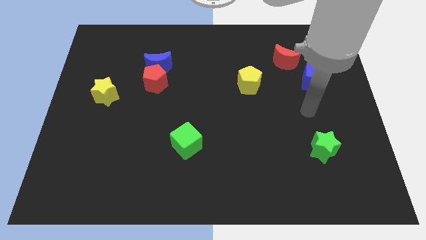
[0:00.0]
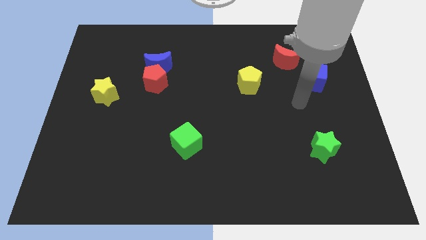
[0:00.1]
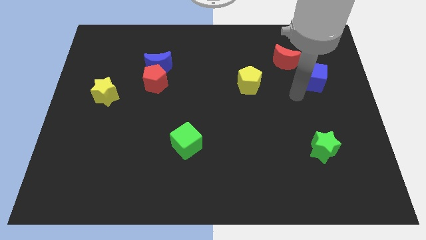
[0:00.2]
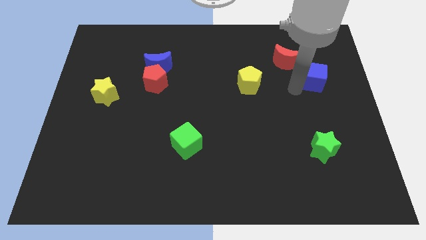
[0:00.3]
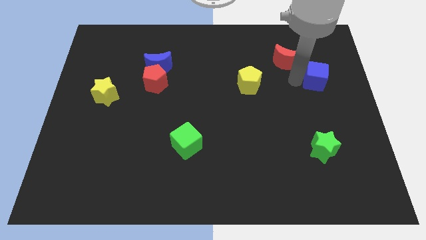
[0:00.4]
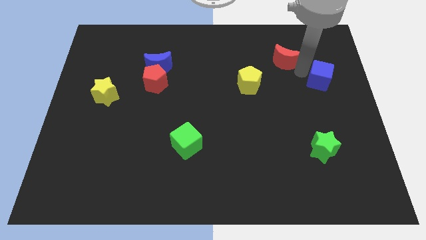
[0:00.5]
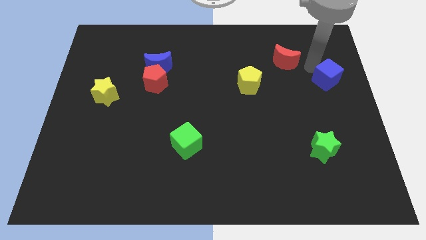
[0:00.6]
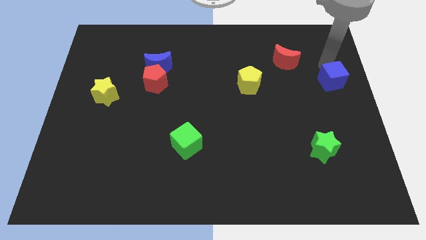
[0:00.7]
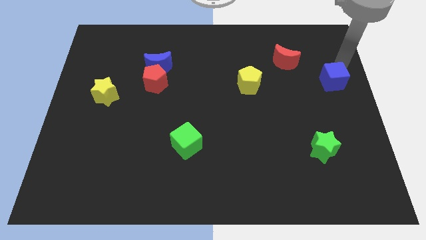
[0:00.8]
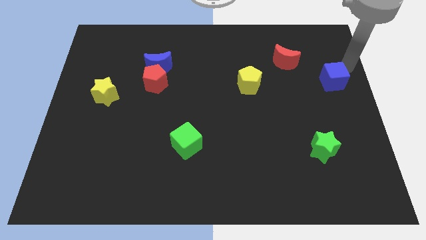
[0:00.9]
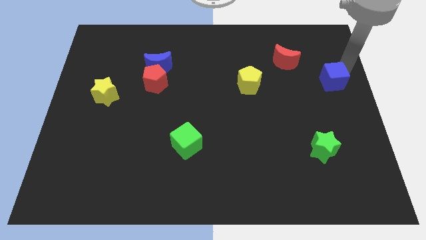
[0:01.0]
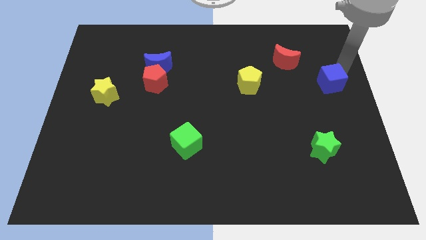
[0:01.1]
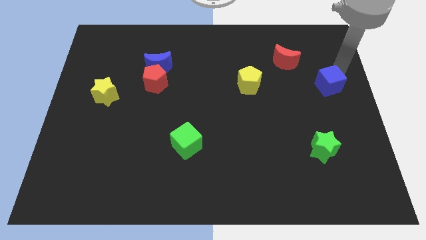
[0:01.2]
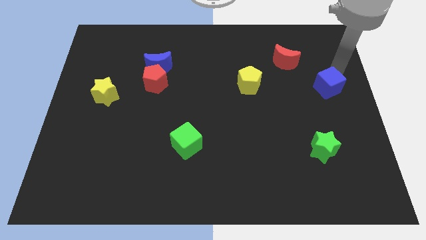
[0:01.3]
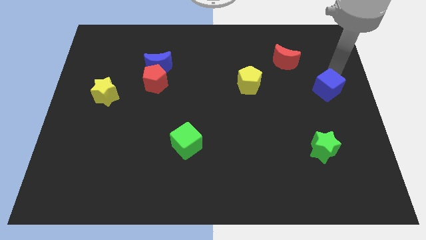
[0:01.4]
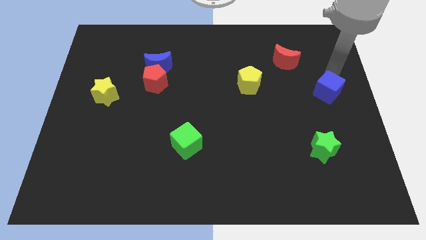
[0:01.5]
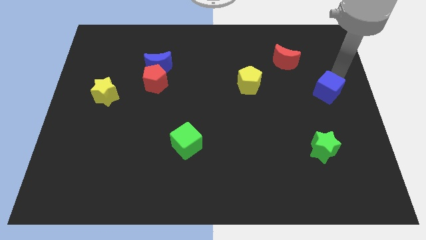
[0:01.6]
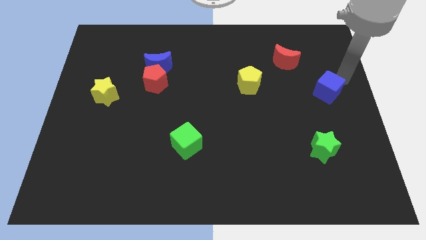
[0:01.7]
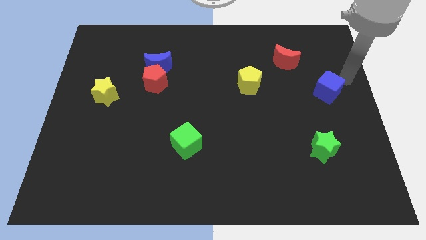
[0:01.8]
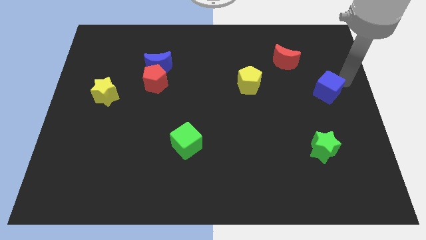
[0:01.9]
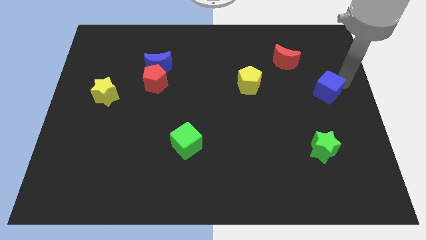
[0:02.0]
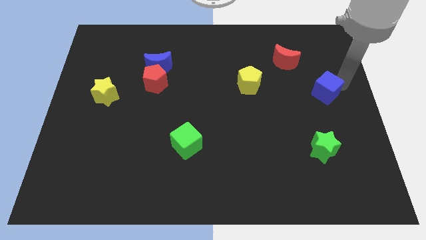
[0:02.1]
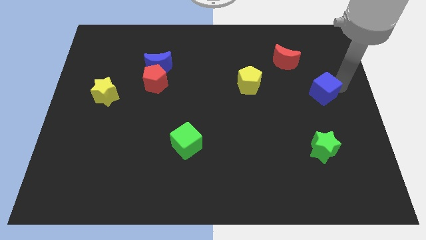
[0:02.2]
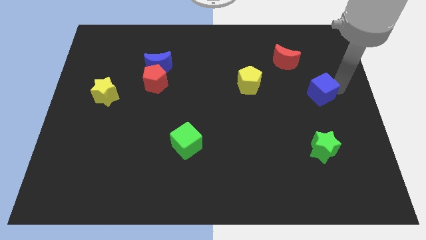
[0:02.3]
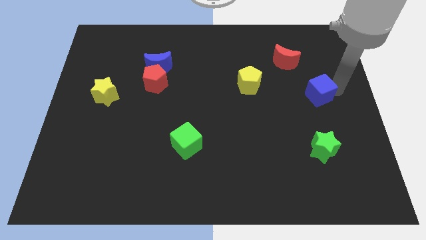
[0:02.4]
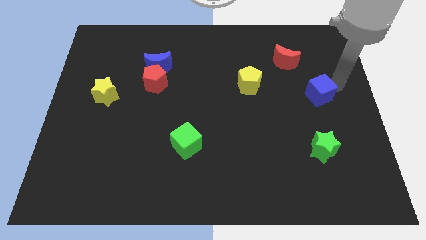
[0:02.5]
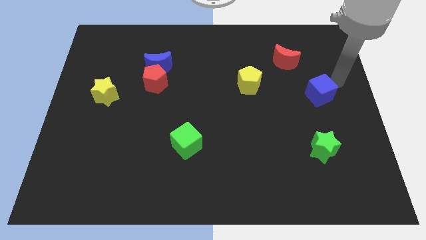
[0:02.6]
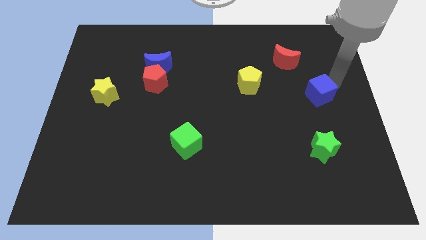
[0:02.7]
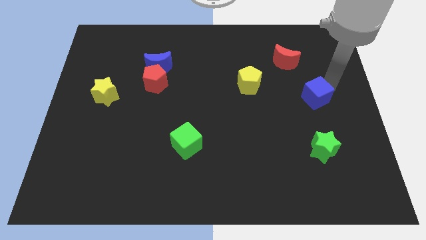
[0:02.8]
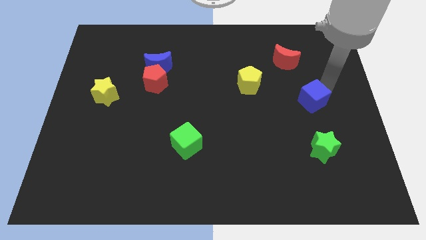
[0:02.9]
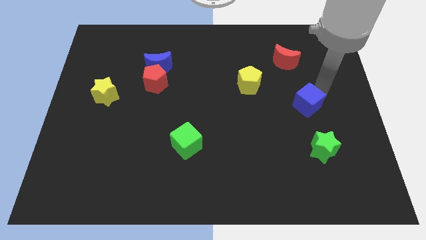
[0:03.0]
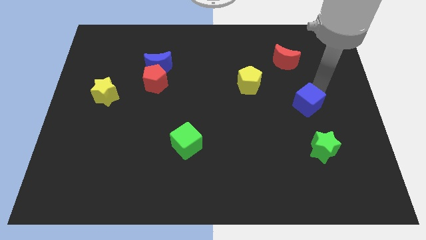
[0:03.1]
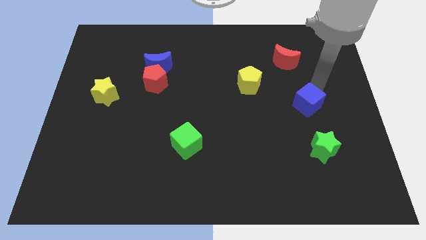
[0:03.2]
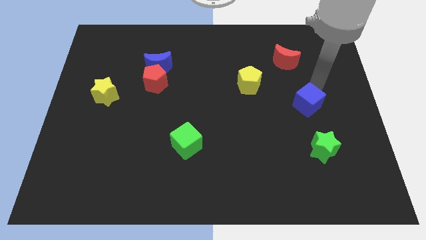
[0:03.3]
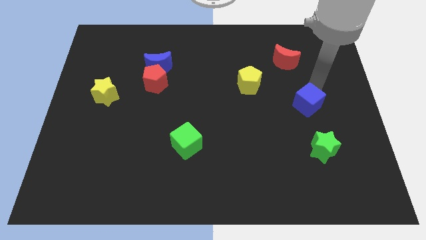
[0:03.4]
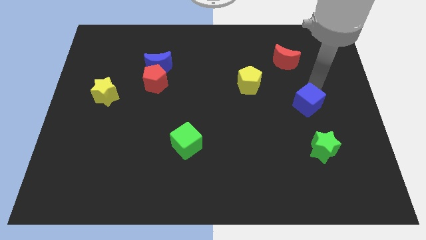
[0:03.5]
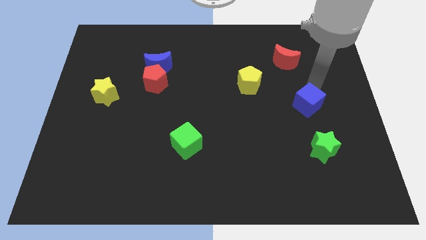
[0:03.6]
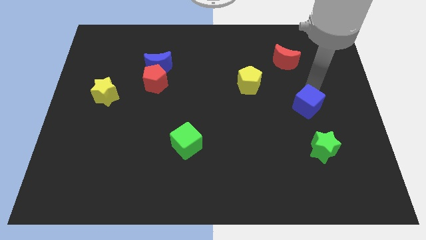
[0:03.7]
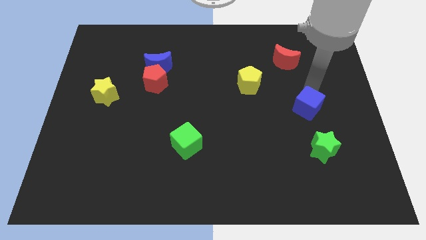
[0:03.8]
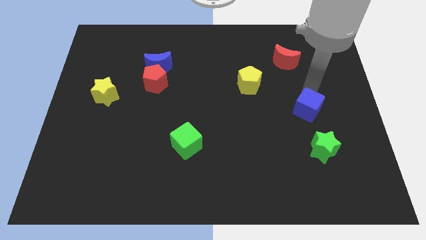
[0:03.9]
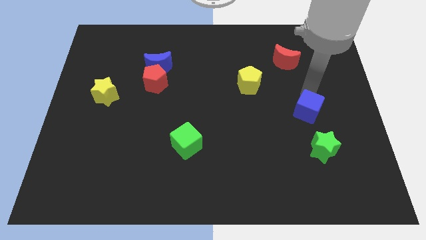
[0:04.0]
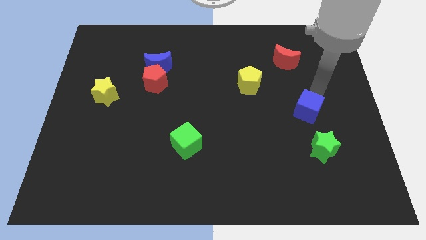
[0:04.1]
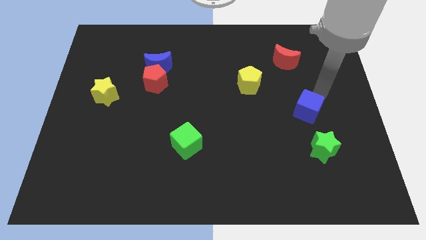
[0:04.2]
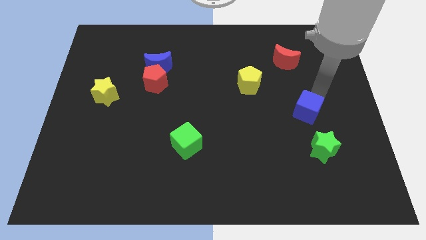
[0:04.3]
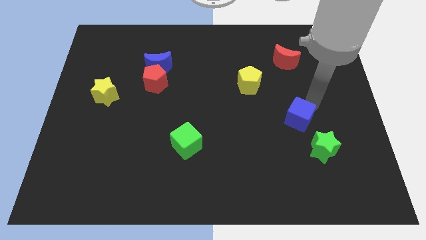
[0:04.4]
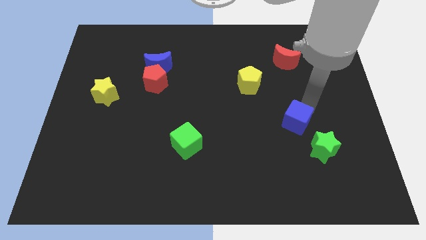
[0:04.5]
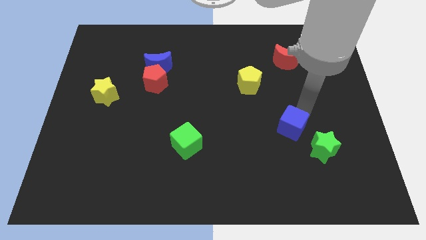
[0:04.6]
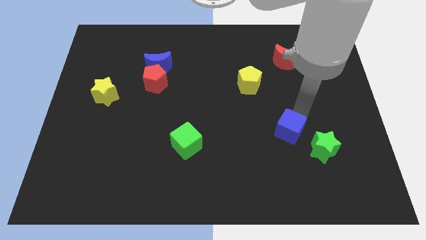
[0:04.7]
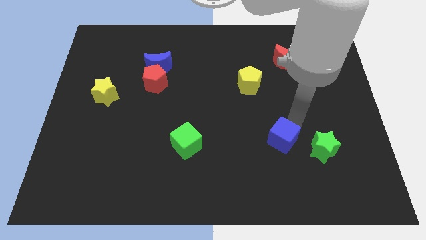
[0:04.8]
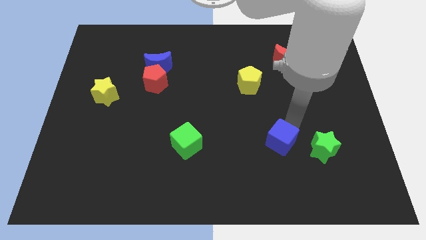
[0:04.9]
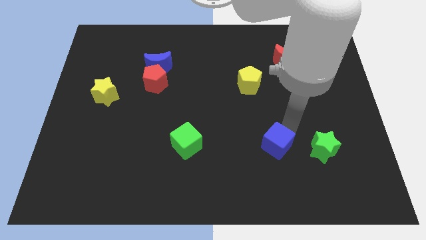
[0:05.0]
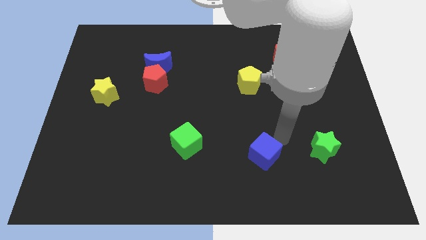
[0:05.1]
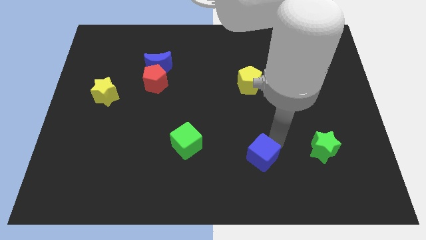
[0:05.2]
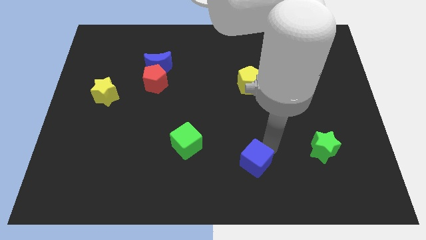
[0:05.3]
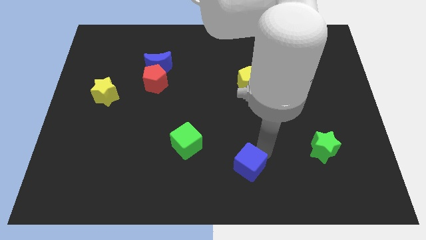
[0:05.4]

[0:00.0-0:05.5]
put the blue cube to the bottom

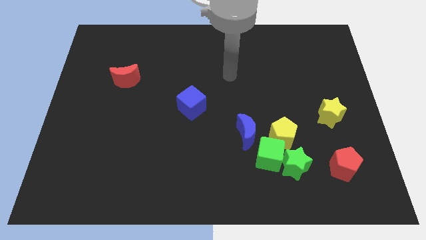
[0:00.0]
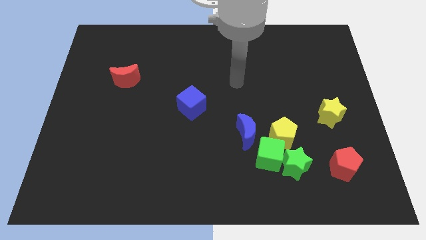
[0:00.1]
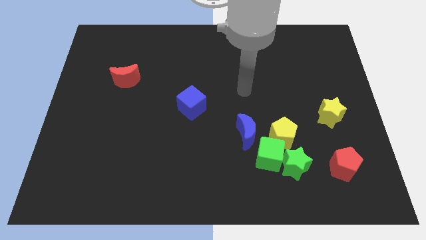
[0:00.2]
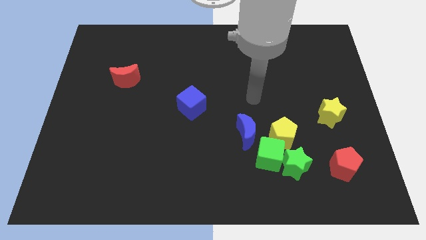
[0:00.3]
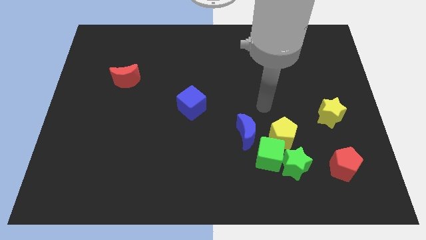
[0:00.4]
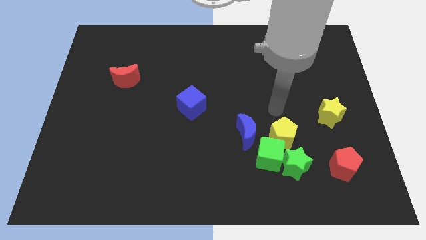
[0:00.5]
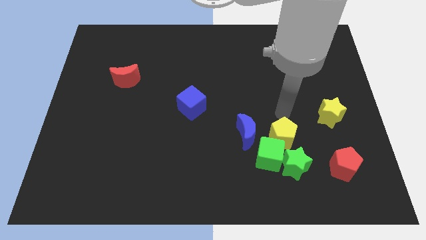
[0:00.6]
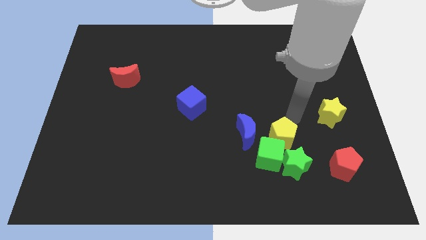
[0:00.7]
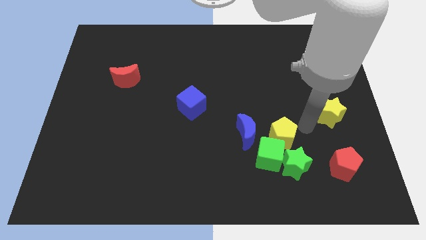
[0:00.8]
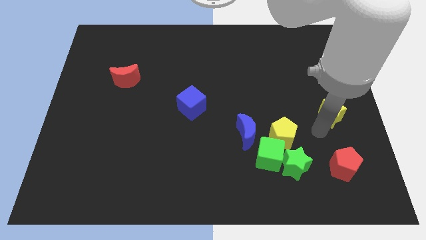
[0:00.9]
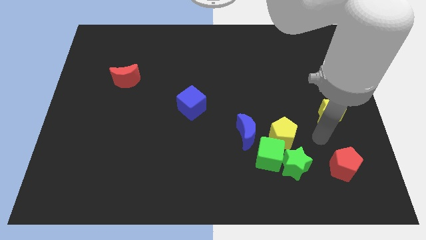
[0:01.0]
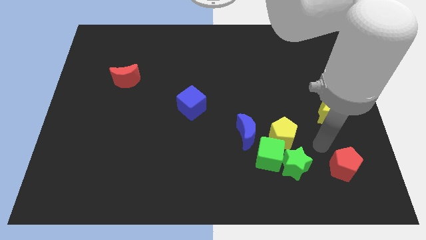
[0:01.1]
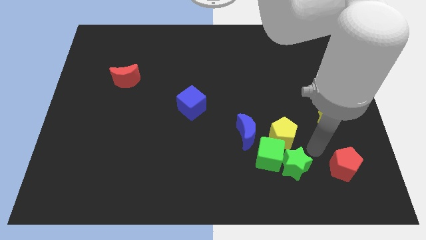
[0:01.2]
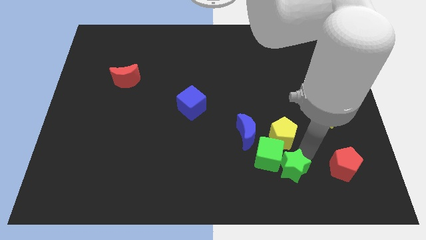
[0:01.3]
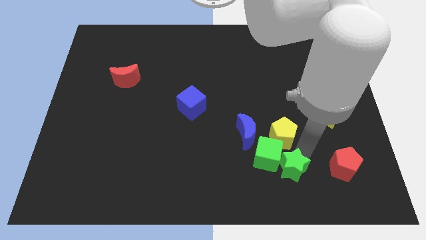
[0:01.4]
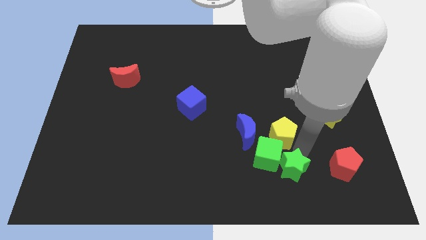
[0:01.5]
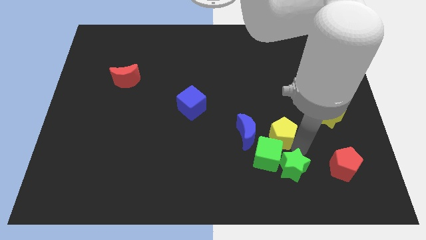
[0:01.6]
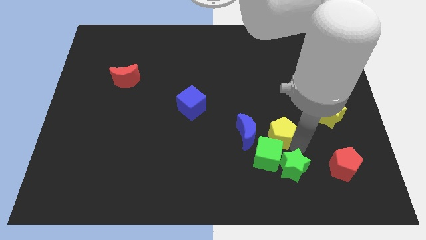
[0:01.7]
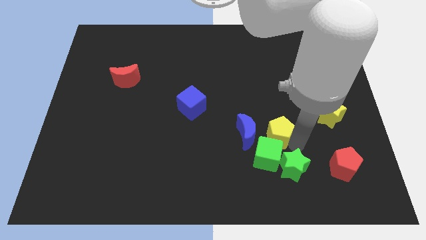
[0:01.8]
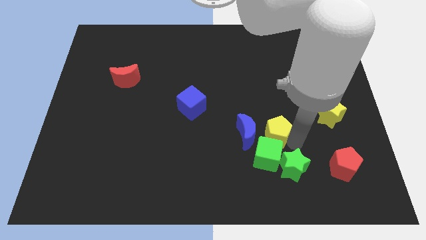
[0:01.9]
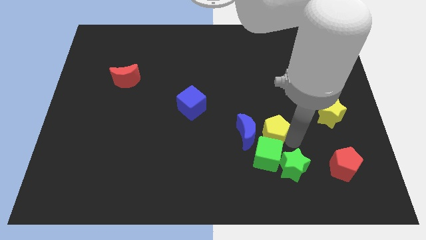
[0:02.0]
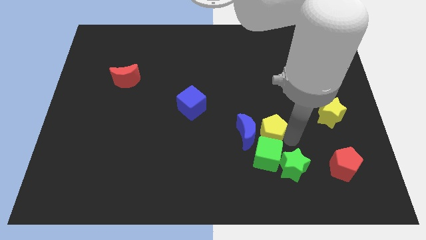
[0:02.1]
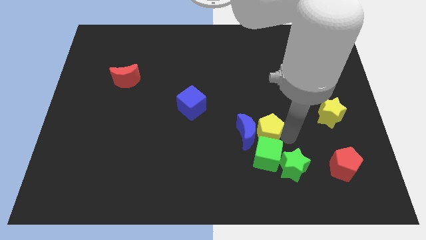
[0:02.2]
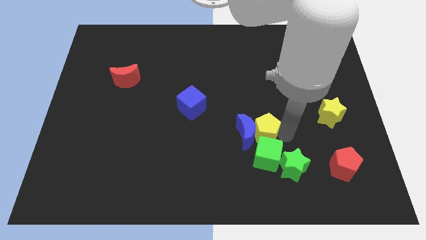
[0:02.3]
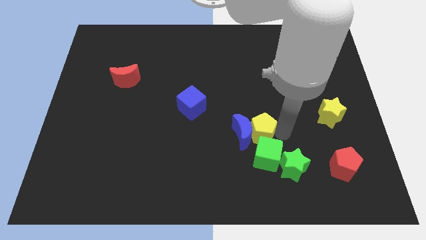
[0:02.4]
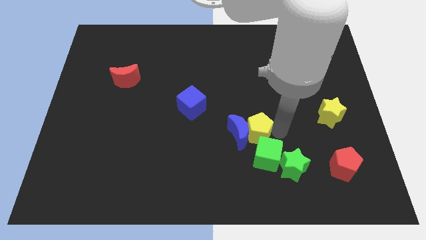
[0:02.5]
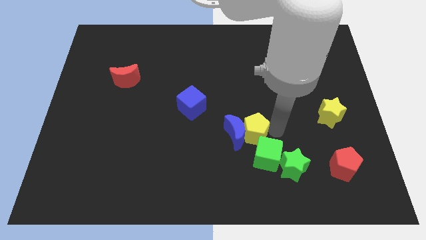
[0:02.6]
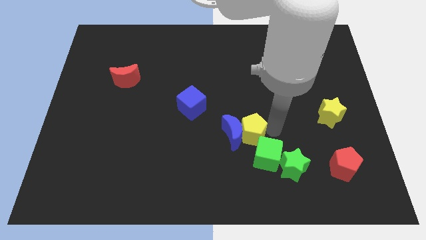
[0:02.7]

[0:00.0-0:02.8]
move the yellow pentagon to the center

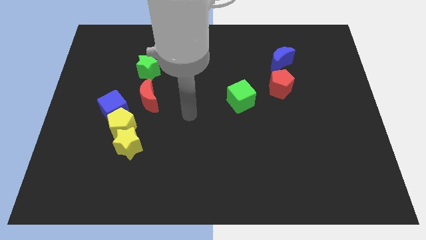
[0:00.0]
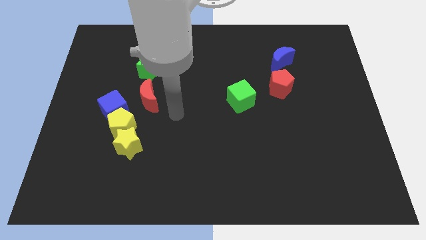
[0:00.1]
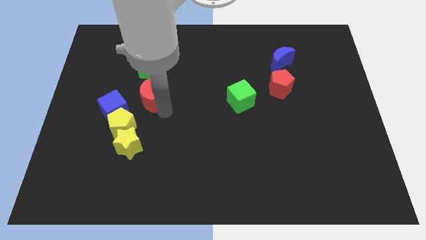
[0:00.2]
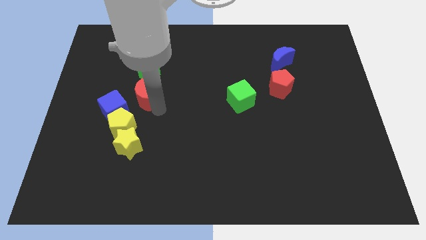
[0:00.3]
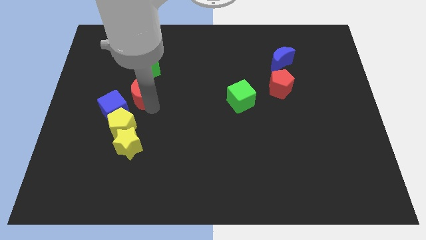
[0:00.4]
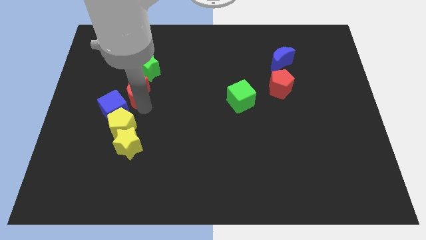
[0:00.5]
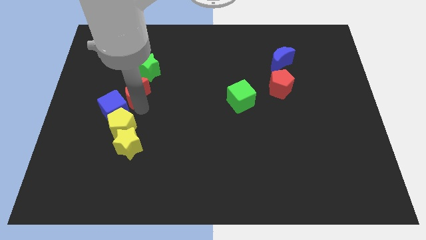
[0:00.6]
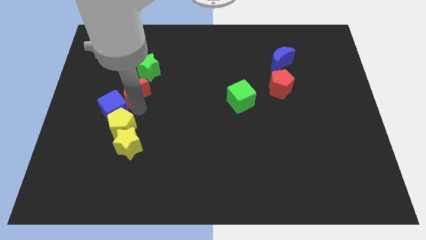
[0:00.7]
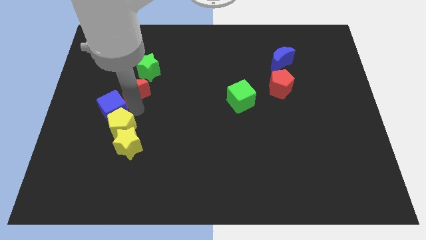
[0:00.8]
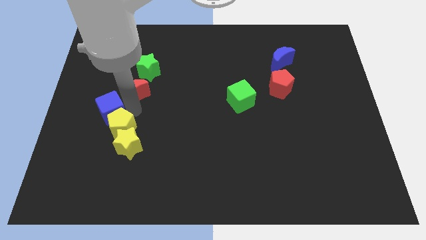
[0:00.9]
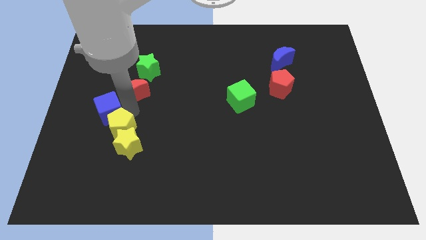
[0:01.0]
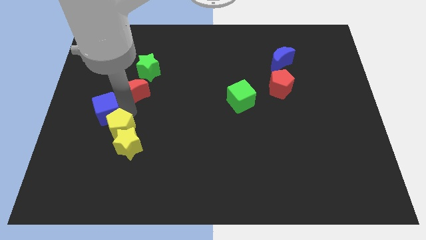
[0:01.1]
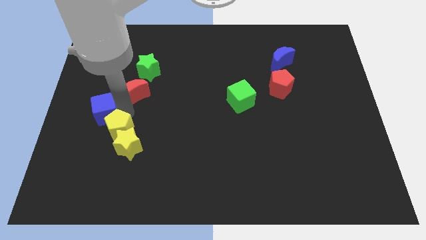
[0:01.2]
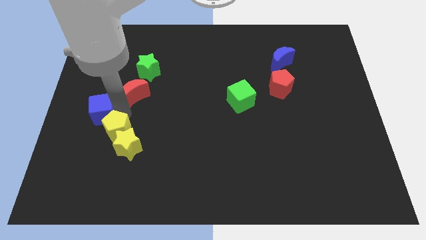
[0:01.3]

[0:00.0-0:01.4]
push the blue cube to the center left
